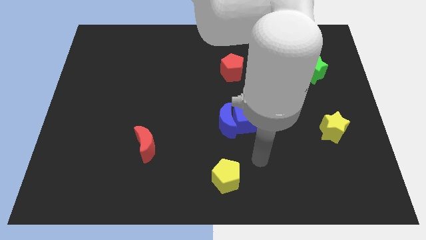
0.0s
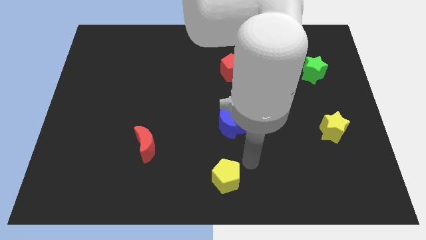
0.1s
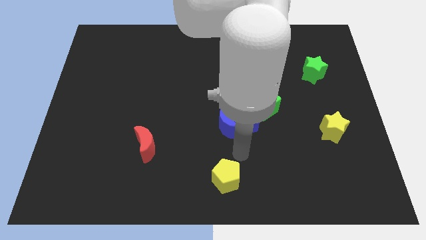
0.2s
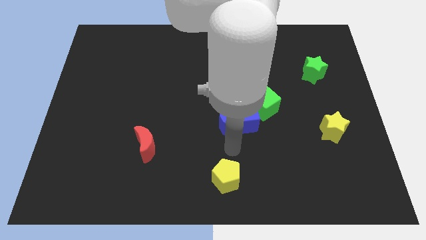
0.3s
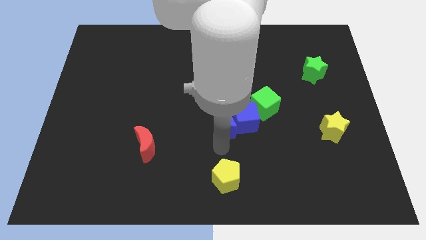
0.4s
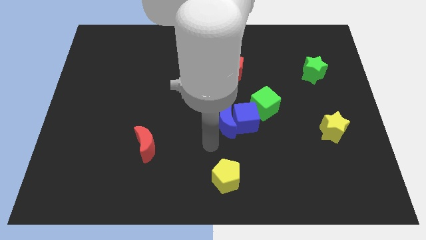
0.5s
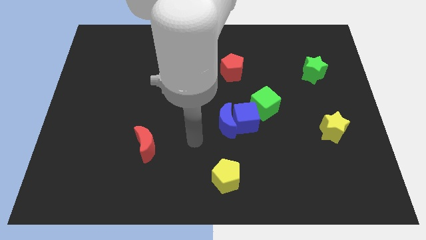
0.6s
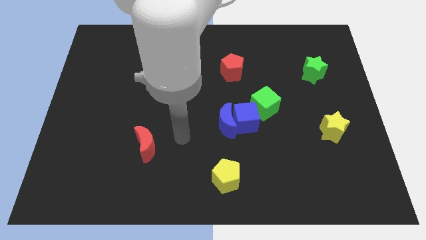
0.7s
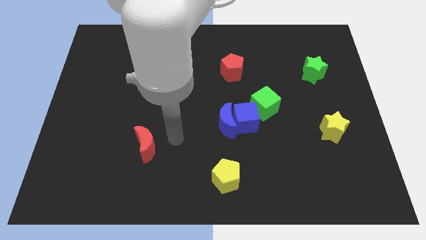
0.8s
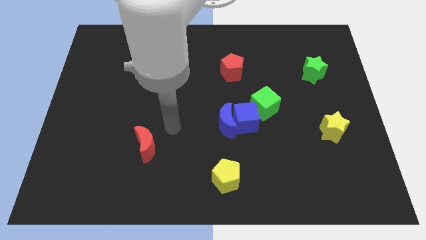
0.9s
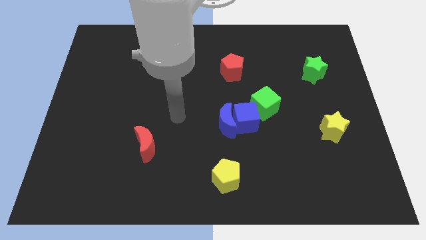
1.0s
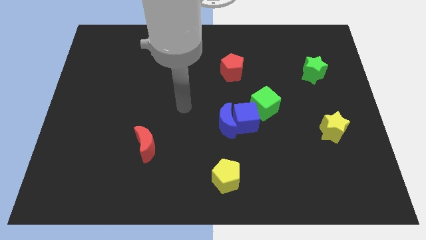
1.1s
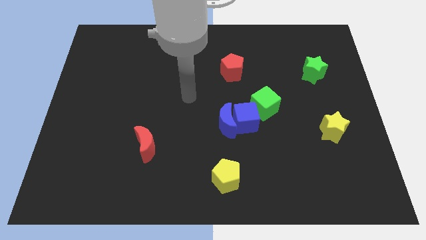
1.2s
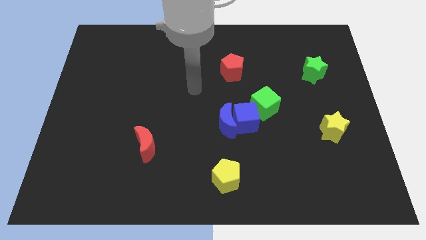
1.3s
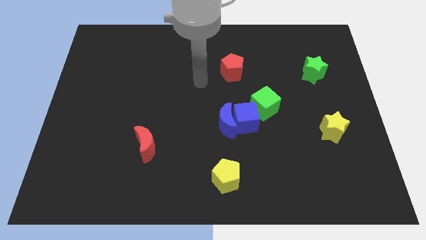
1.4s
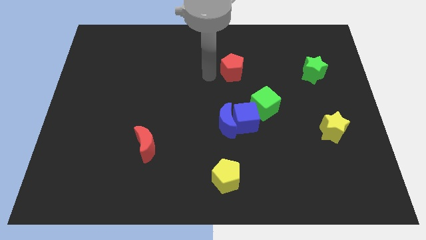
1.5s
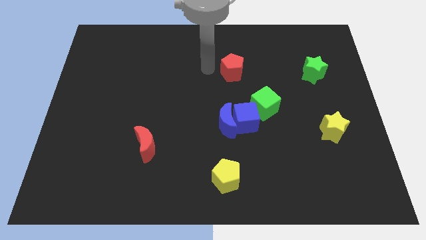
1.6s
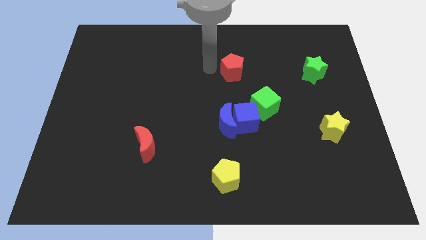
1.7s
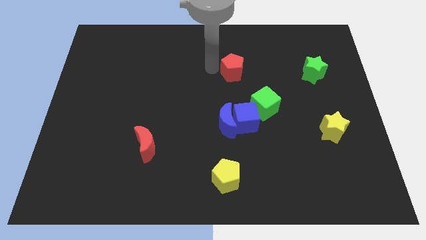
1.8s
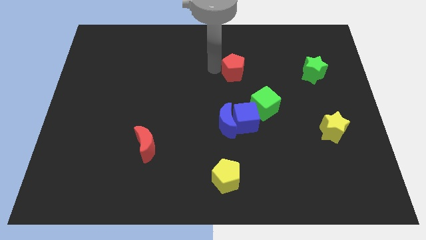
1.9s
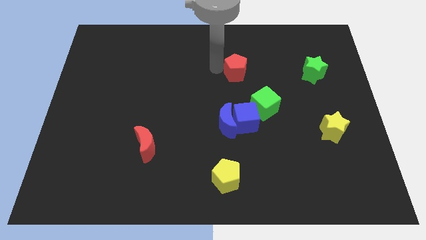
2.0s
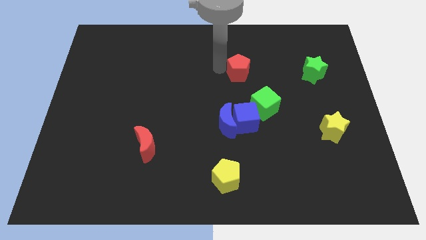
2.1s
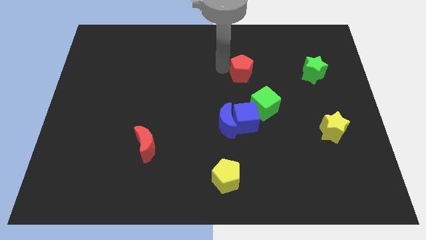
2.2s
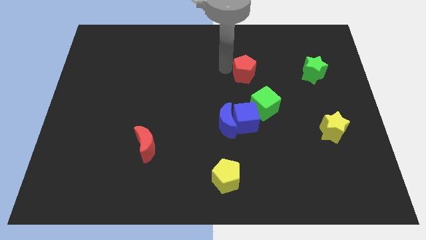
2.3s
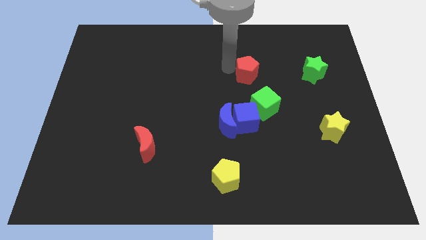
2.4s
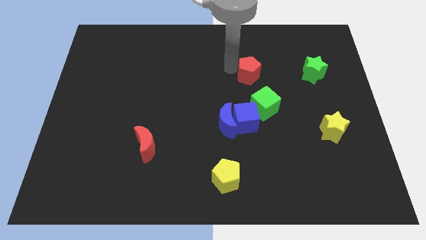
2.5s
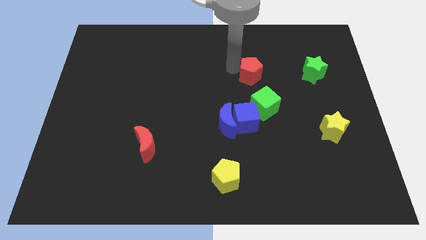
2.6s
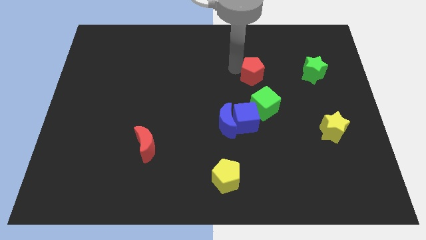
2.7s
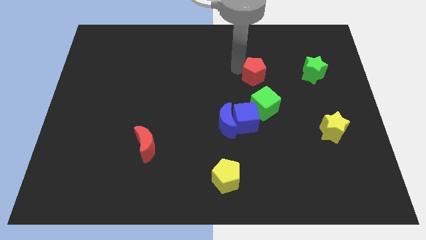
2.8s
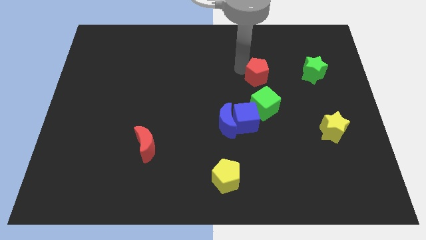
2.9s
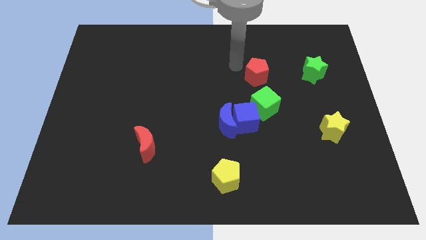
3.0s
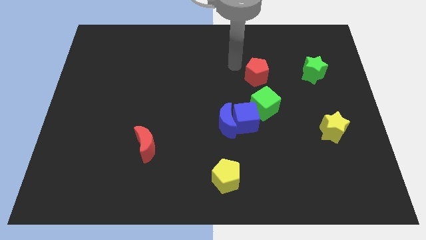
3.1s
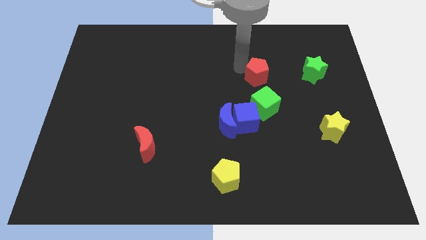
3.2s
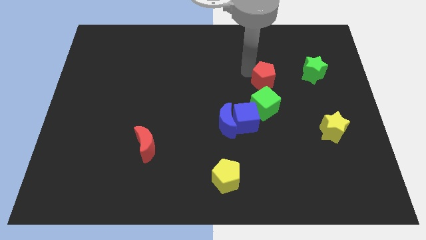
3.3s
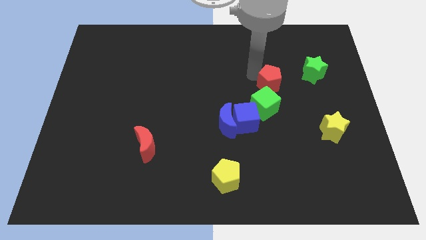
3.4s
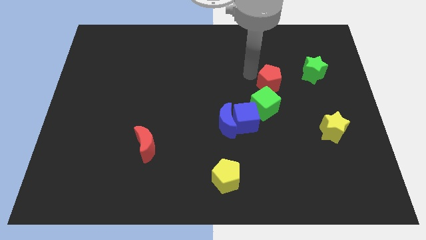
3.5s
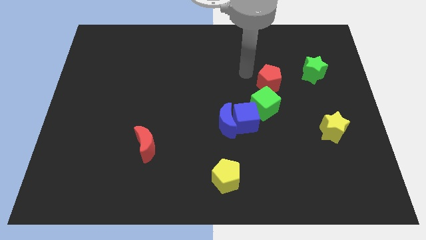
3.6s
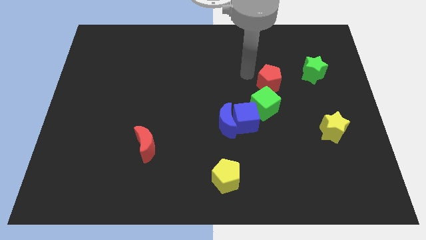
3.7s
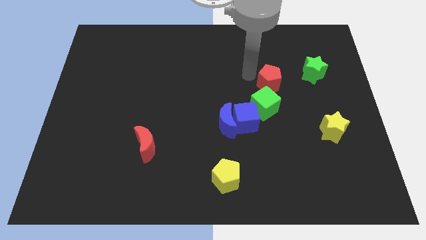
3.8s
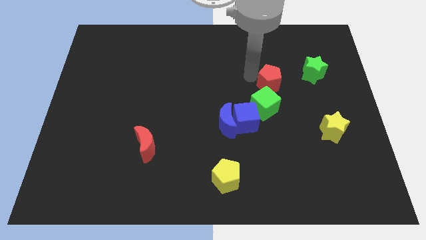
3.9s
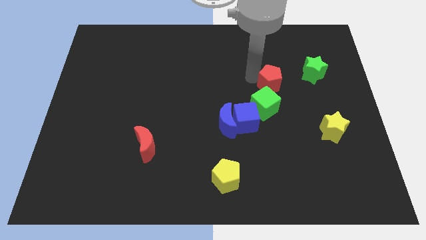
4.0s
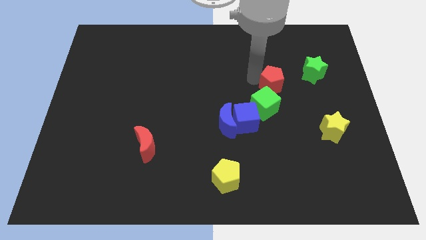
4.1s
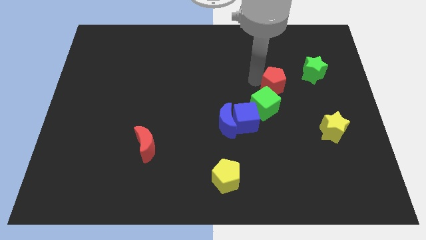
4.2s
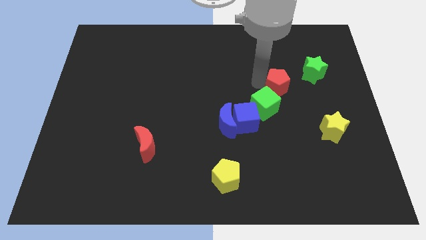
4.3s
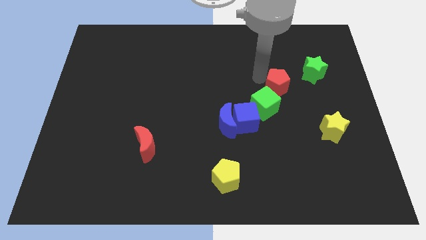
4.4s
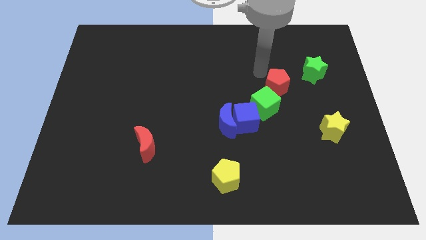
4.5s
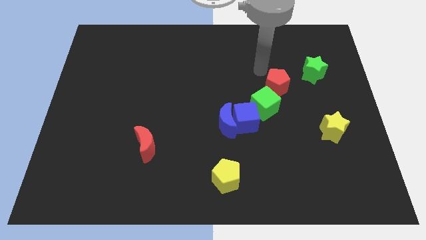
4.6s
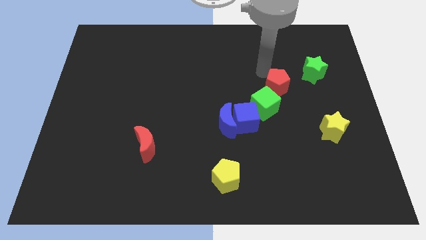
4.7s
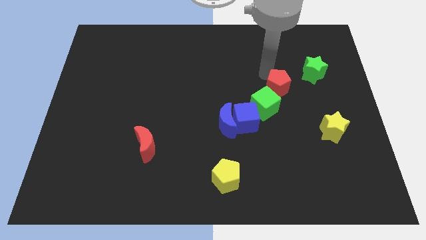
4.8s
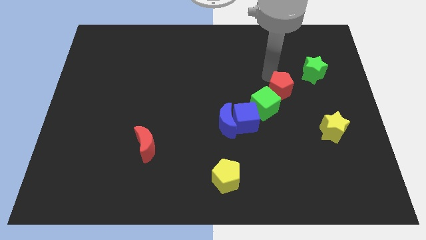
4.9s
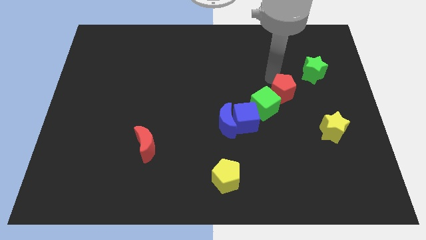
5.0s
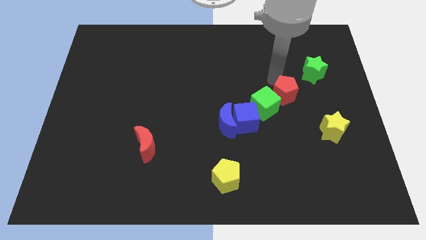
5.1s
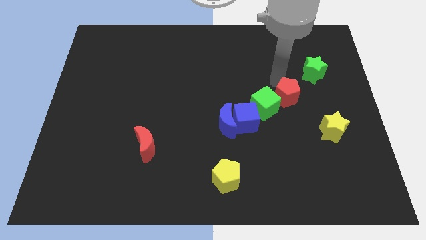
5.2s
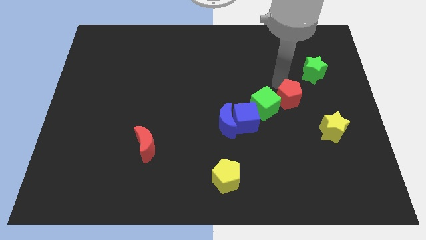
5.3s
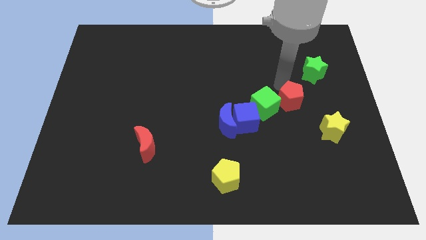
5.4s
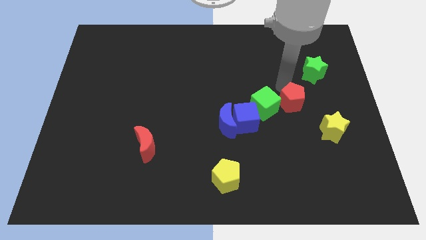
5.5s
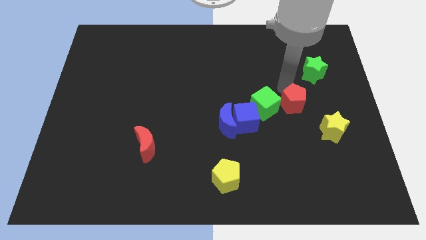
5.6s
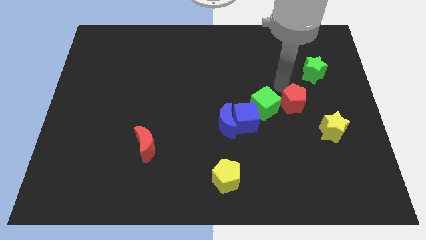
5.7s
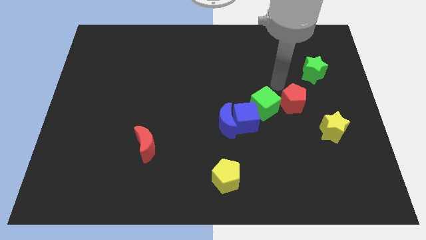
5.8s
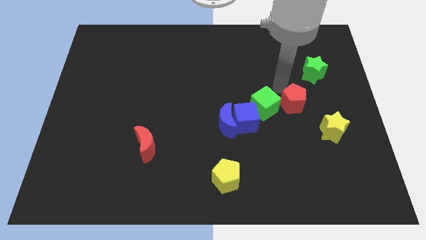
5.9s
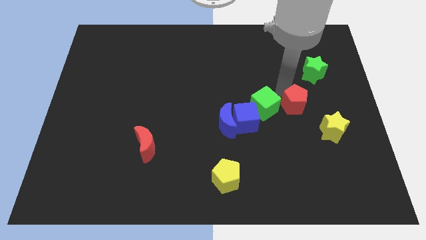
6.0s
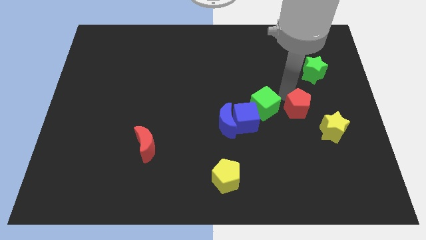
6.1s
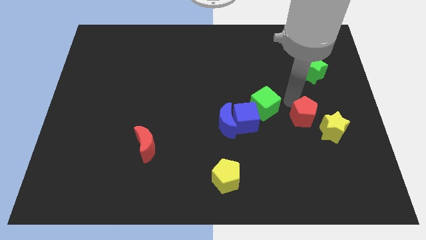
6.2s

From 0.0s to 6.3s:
push the red pentagon down and then right

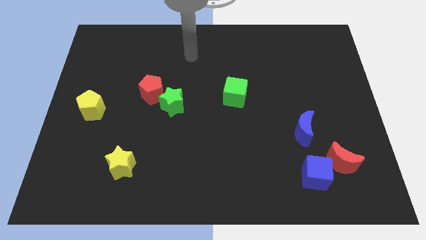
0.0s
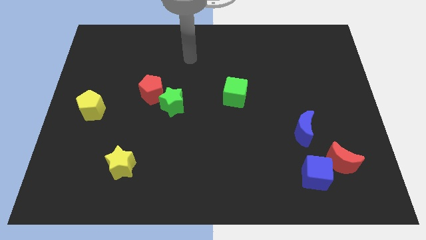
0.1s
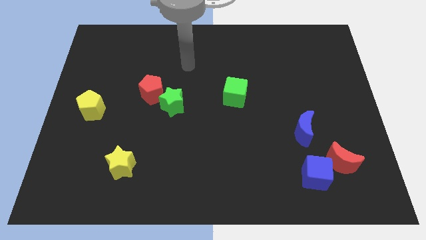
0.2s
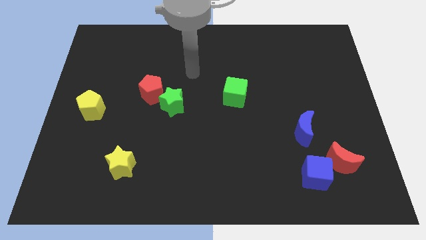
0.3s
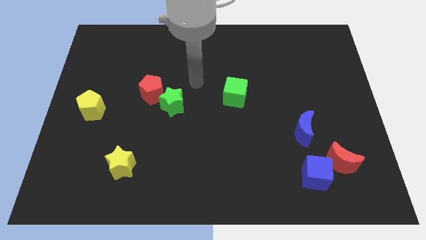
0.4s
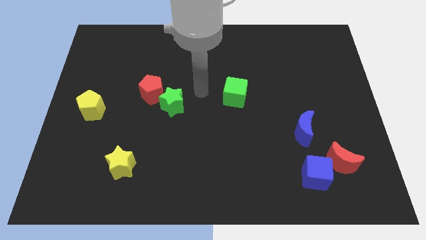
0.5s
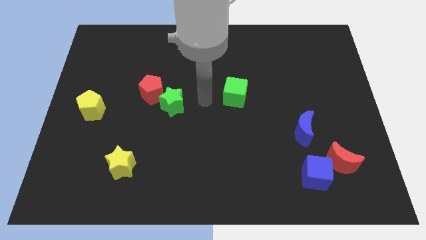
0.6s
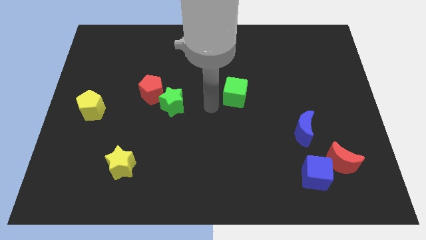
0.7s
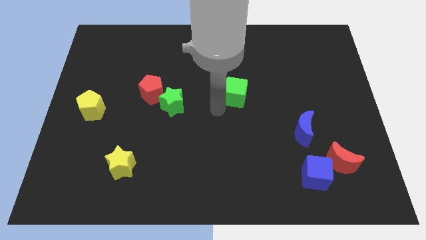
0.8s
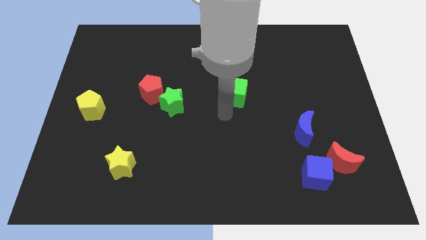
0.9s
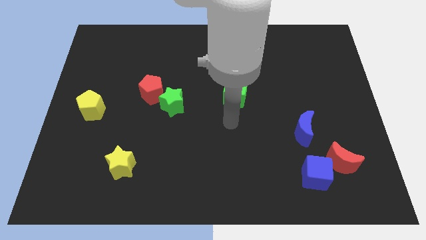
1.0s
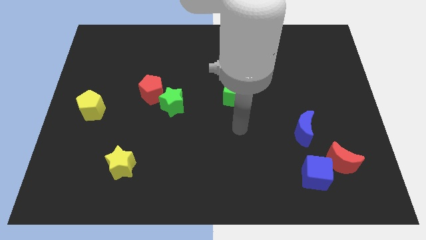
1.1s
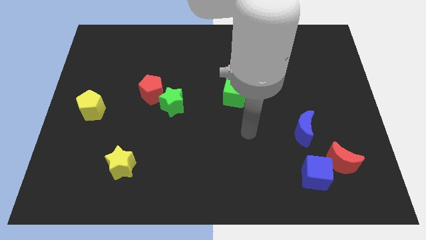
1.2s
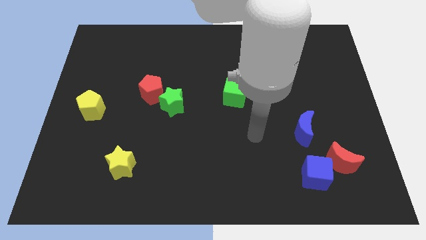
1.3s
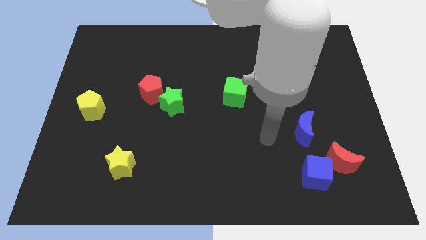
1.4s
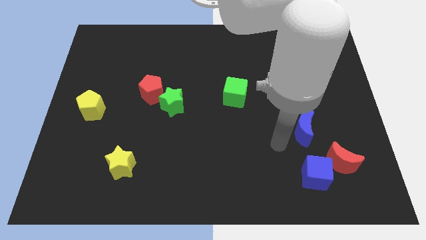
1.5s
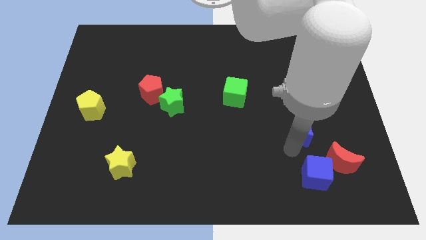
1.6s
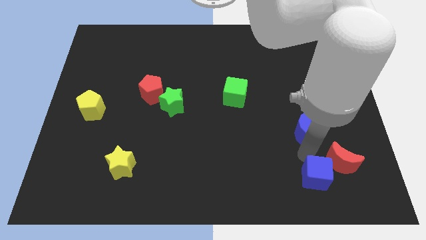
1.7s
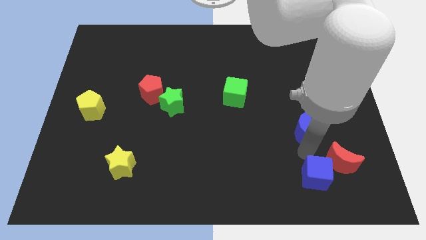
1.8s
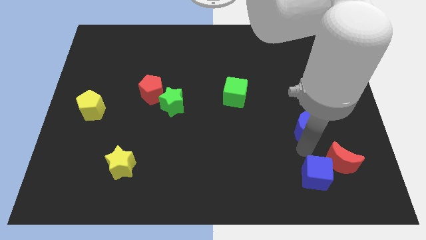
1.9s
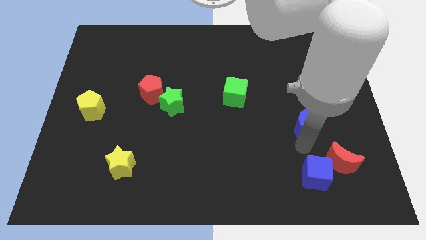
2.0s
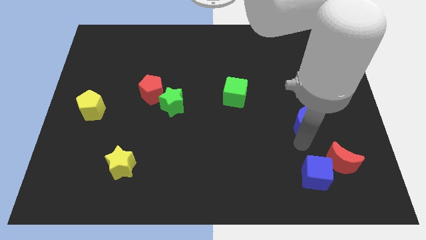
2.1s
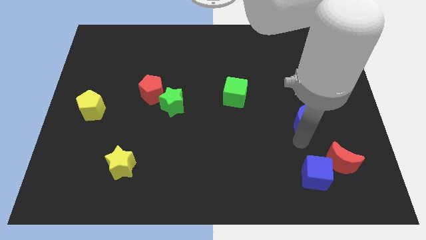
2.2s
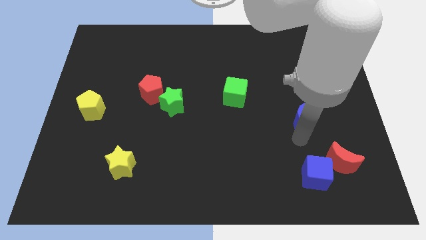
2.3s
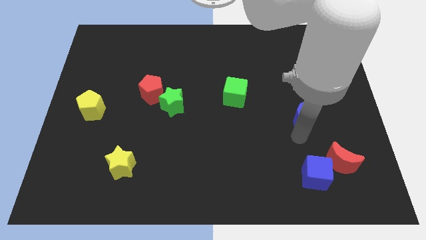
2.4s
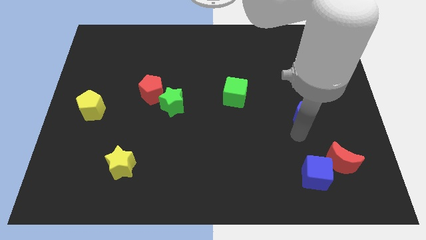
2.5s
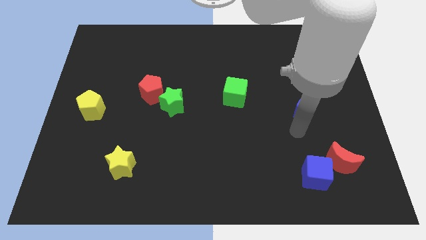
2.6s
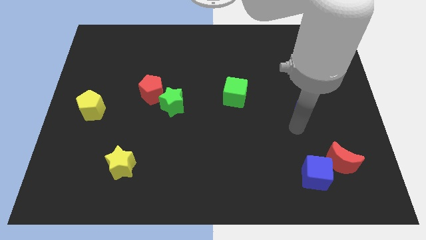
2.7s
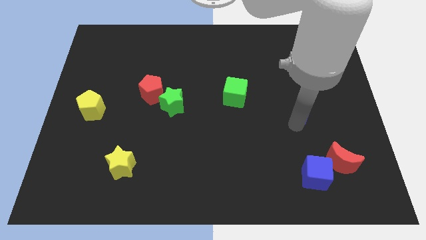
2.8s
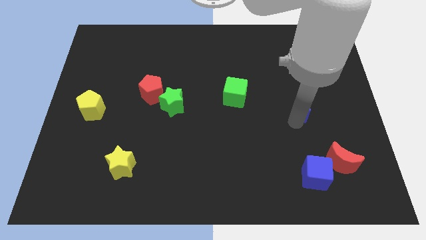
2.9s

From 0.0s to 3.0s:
push the blue moon a little bit up
